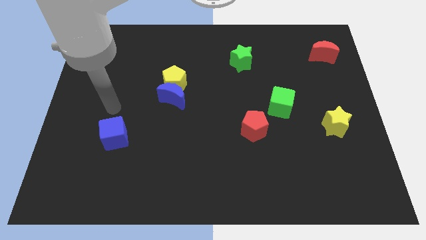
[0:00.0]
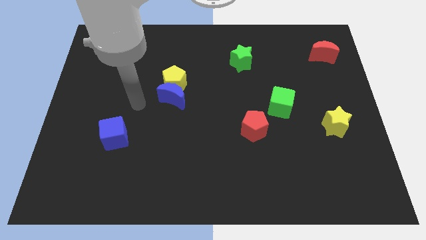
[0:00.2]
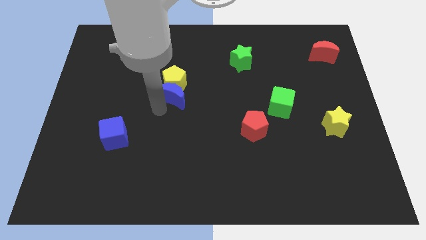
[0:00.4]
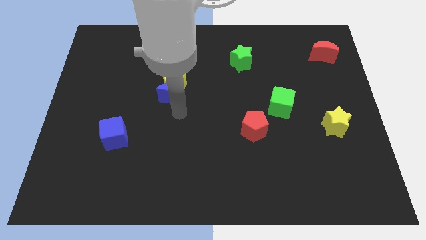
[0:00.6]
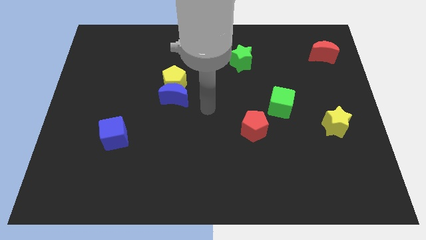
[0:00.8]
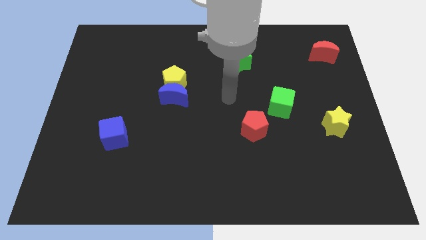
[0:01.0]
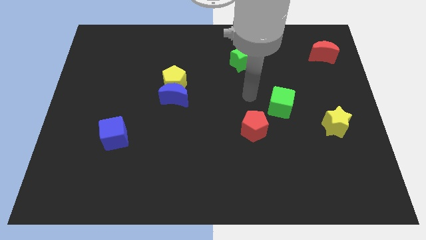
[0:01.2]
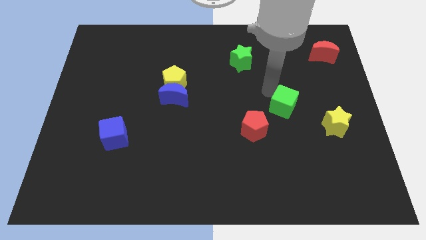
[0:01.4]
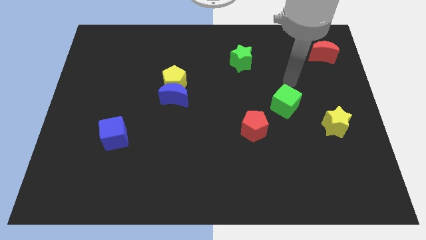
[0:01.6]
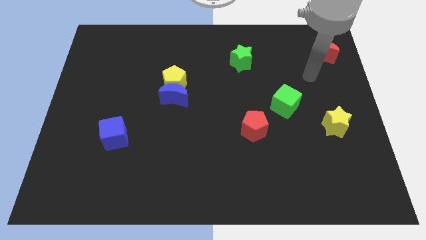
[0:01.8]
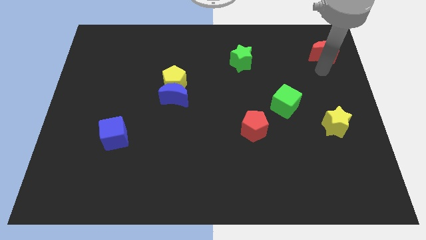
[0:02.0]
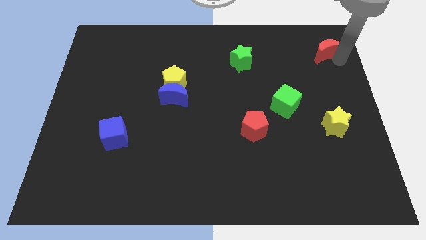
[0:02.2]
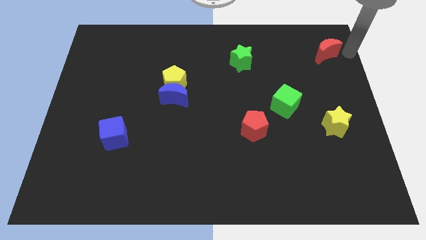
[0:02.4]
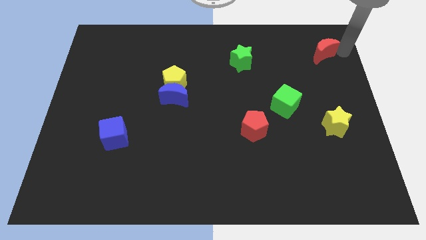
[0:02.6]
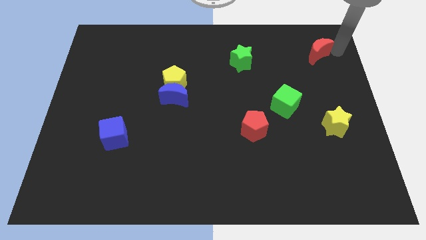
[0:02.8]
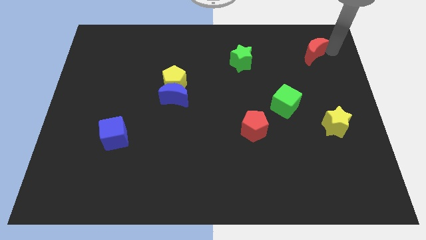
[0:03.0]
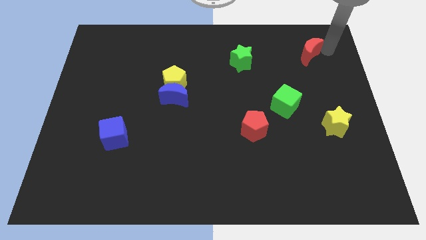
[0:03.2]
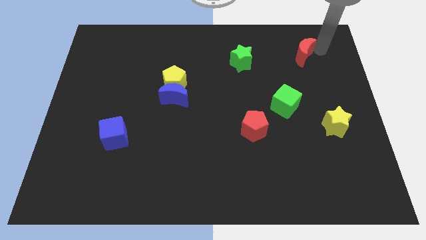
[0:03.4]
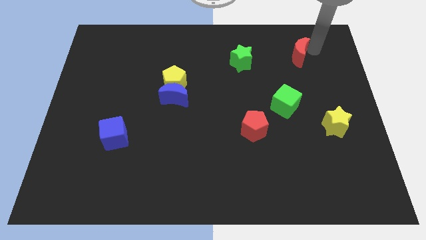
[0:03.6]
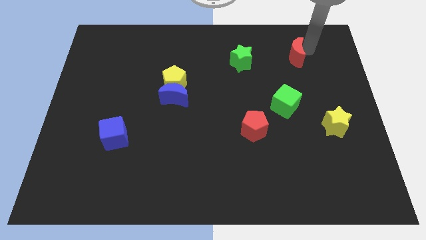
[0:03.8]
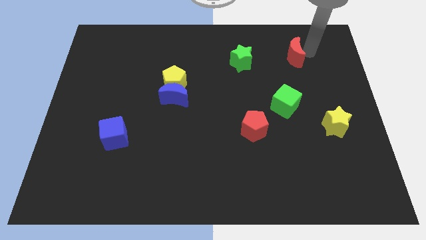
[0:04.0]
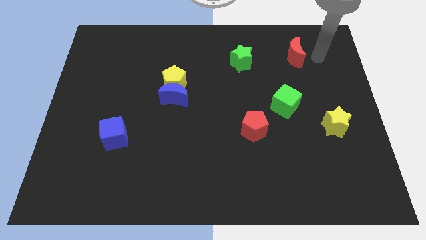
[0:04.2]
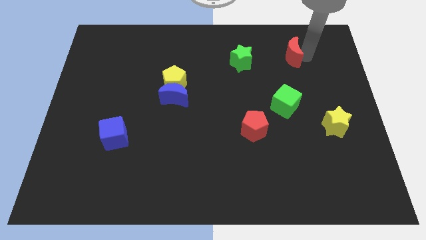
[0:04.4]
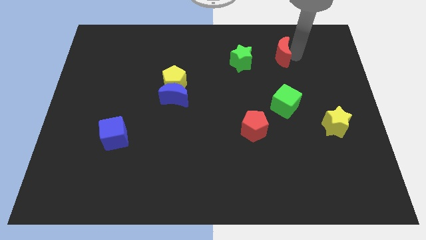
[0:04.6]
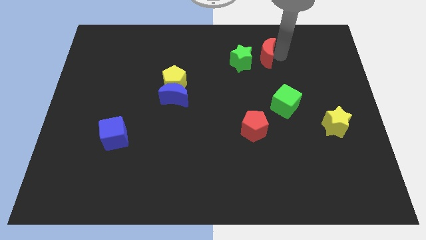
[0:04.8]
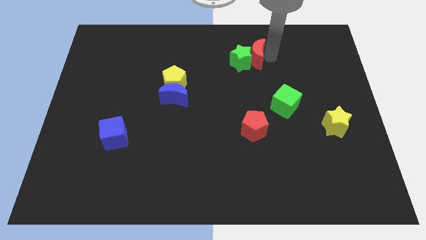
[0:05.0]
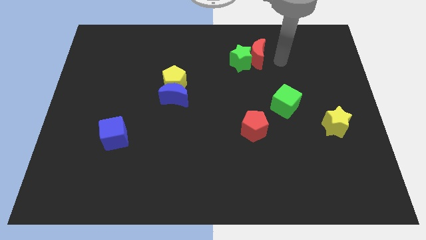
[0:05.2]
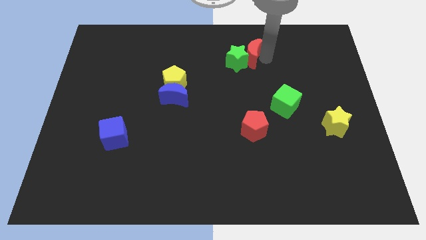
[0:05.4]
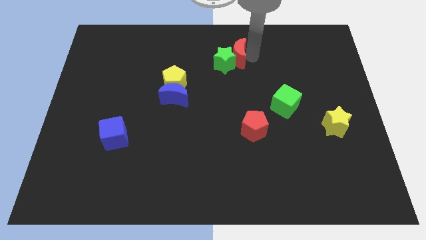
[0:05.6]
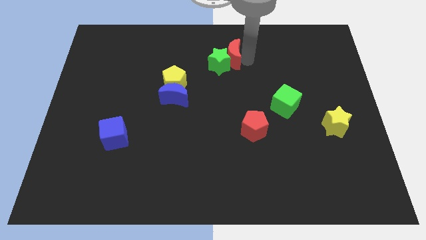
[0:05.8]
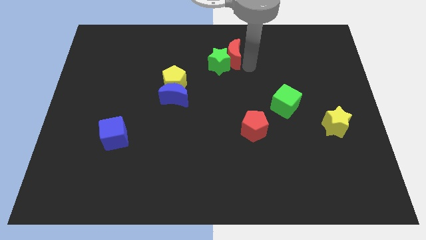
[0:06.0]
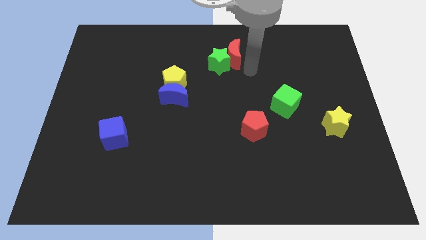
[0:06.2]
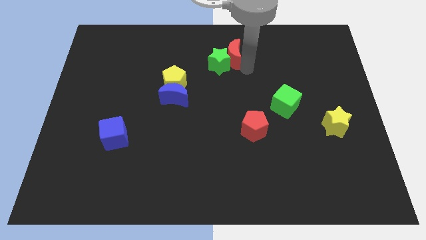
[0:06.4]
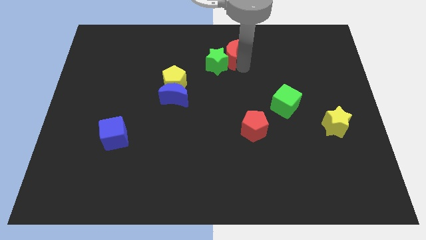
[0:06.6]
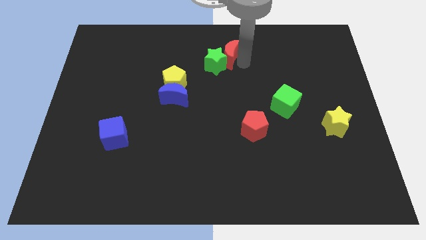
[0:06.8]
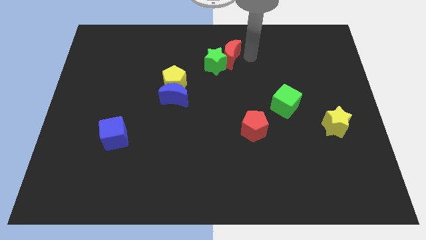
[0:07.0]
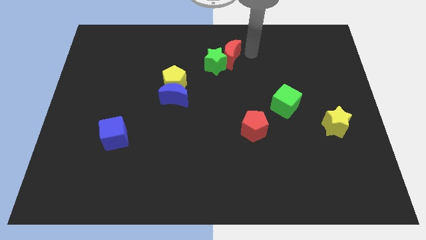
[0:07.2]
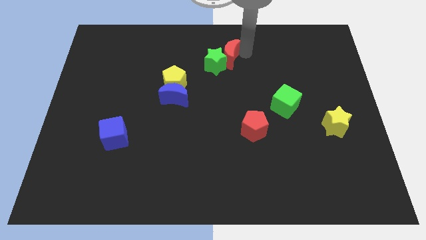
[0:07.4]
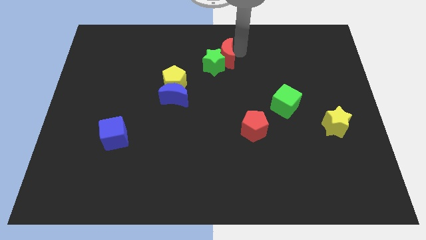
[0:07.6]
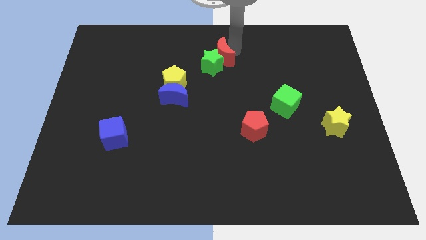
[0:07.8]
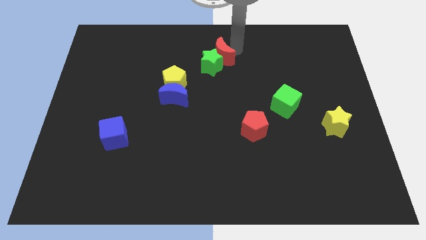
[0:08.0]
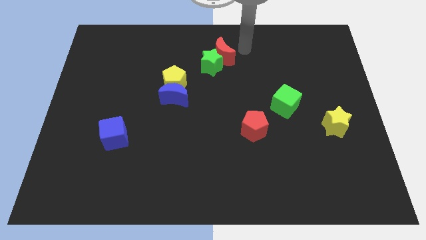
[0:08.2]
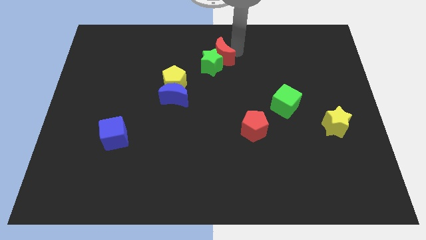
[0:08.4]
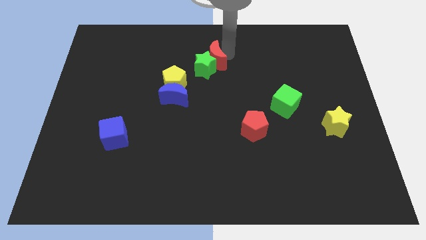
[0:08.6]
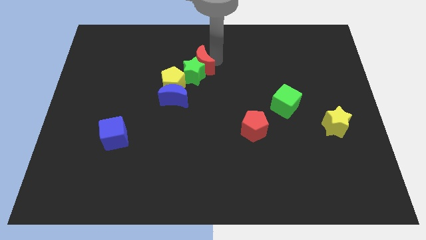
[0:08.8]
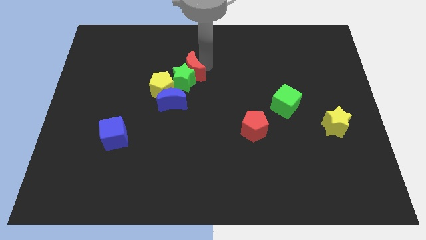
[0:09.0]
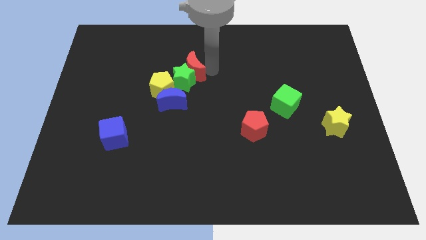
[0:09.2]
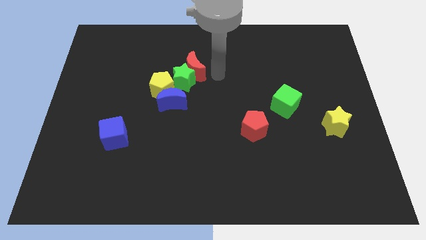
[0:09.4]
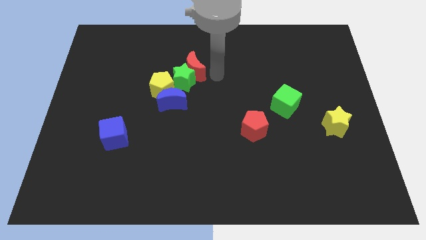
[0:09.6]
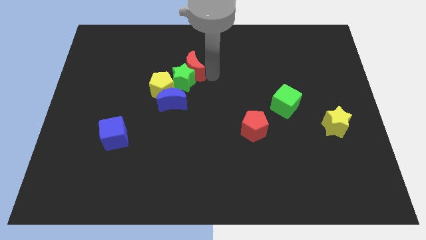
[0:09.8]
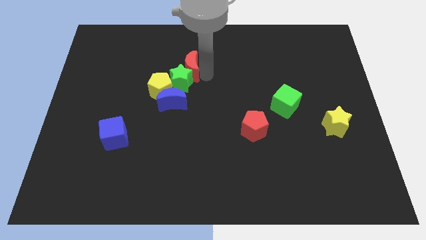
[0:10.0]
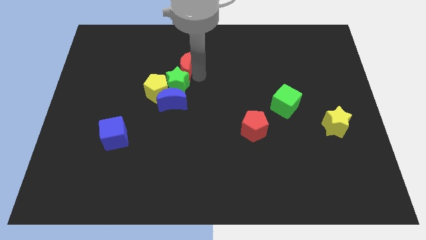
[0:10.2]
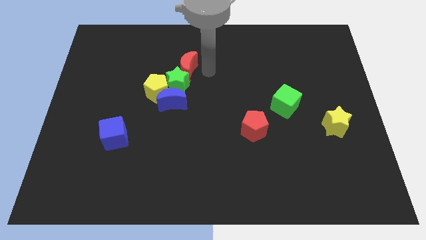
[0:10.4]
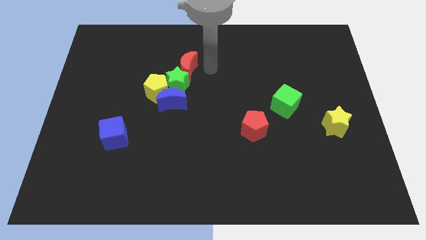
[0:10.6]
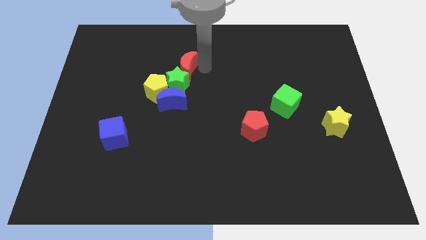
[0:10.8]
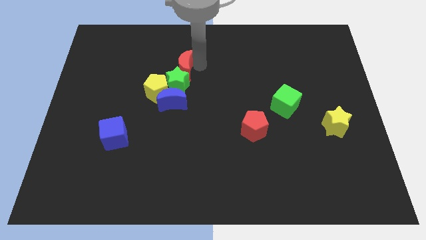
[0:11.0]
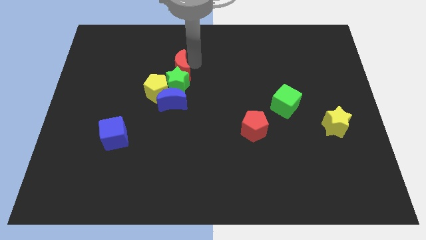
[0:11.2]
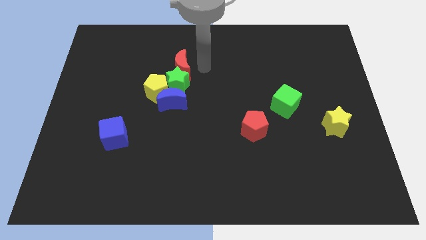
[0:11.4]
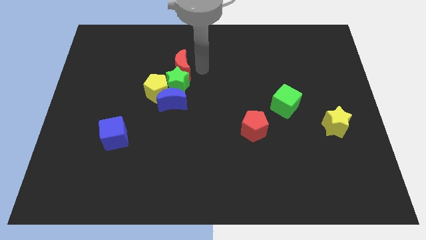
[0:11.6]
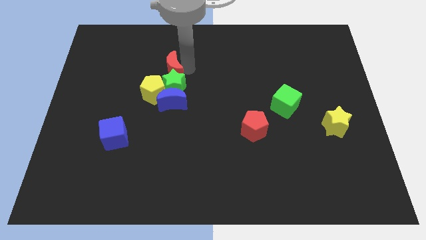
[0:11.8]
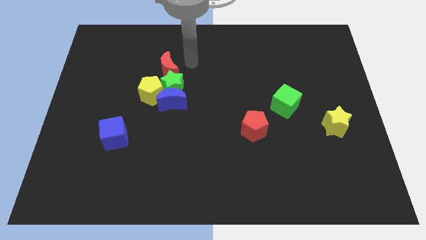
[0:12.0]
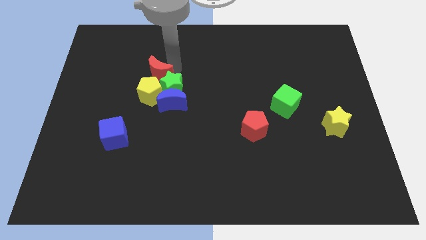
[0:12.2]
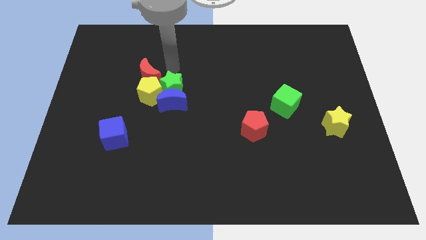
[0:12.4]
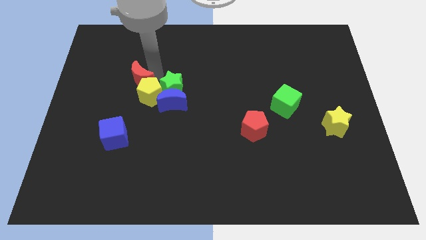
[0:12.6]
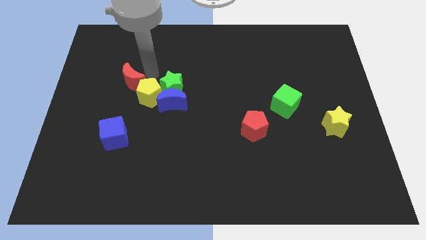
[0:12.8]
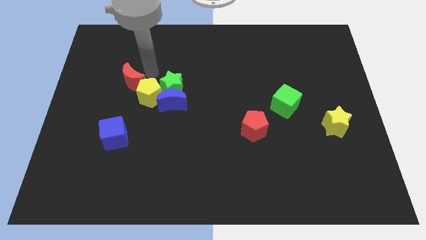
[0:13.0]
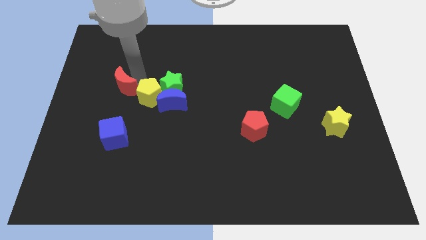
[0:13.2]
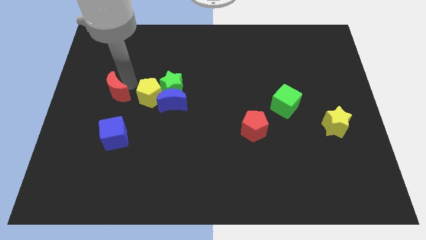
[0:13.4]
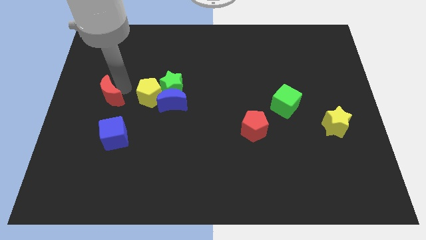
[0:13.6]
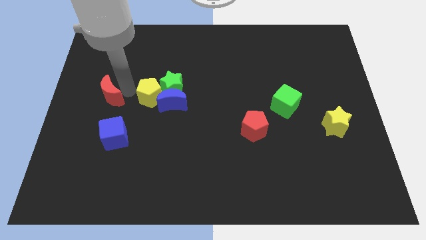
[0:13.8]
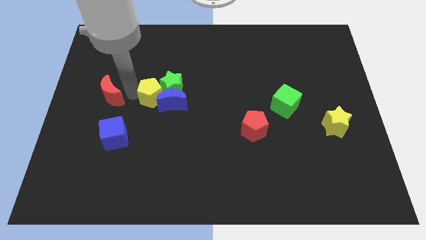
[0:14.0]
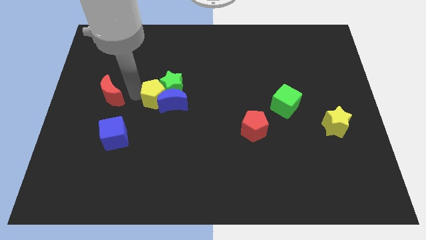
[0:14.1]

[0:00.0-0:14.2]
put the red moon to the left of the yellow pentagon

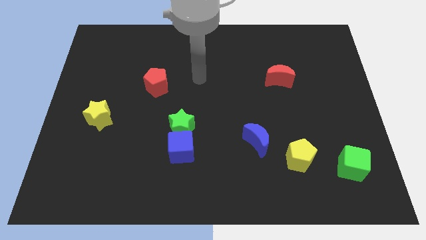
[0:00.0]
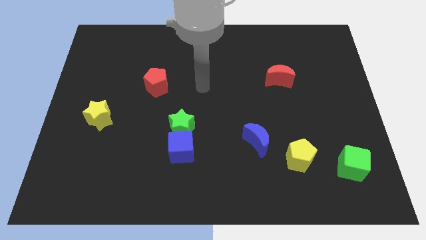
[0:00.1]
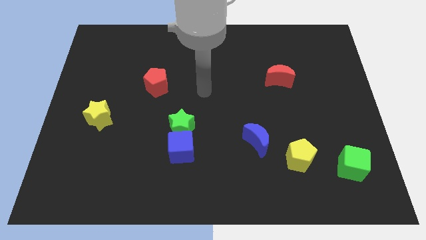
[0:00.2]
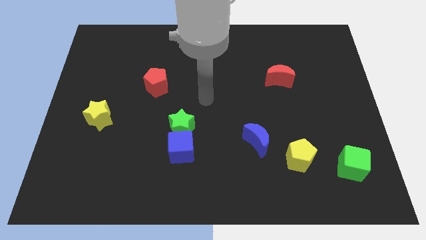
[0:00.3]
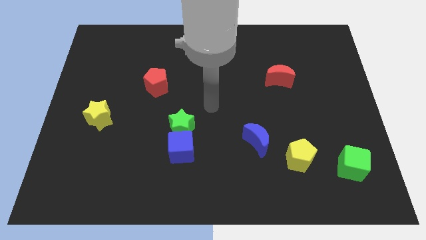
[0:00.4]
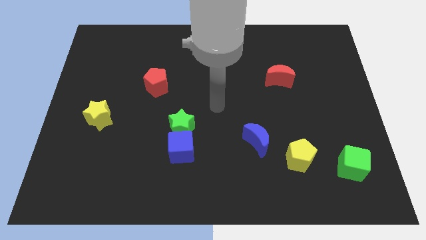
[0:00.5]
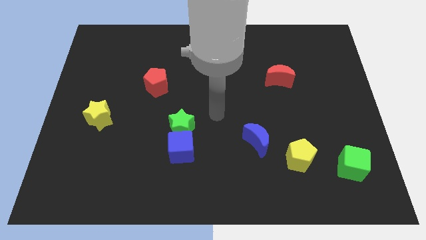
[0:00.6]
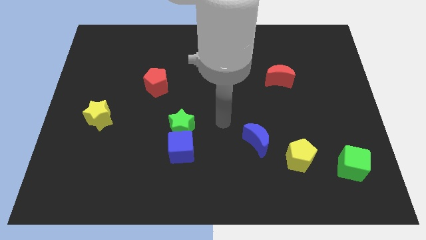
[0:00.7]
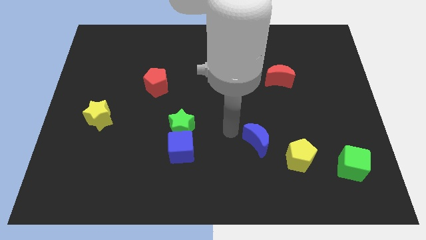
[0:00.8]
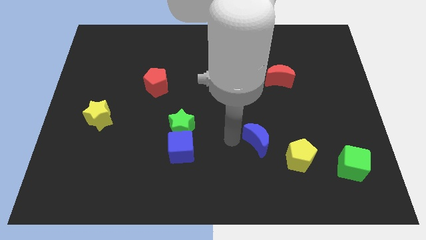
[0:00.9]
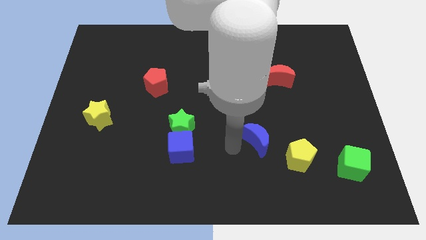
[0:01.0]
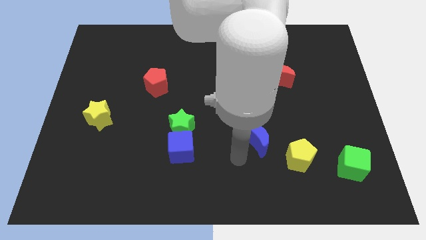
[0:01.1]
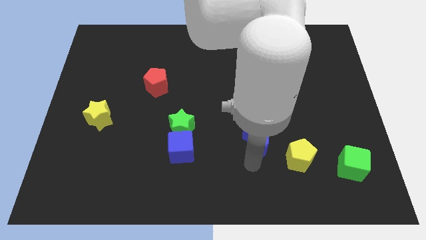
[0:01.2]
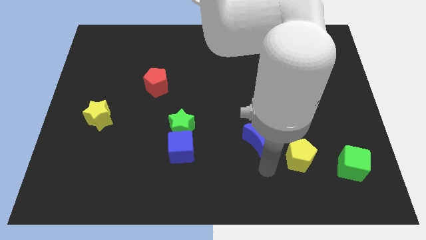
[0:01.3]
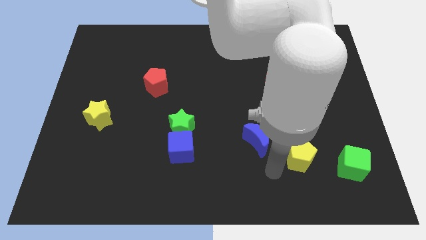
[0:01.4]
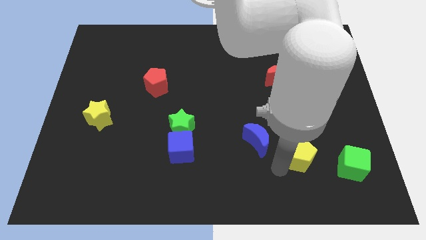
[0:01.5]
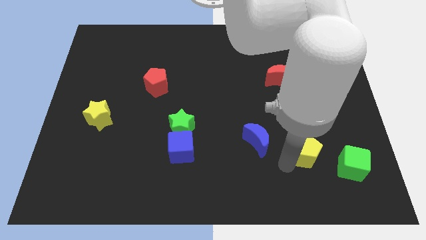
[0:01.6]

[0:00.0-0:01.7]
slide the yellow pentagon diagonally up and to the left of the green cube
